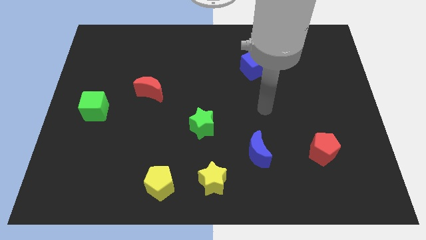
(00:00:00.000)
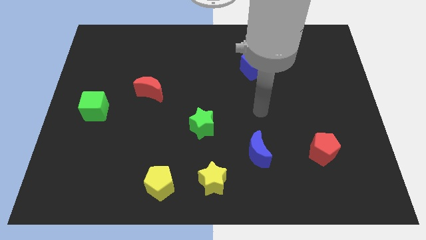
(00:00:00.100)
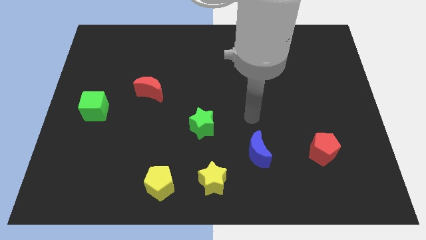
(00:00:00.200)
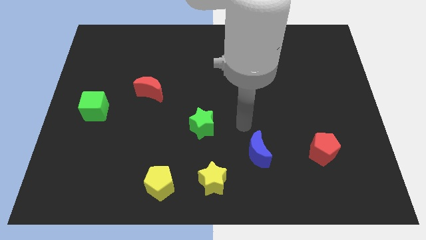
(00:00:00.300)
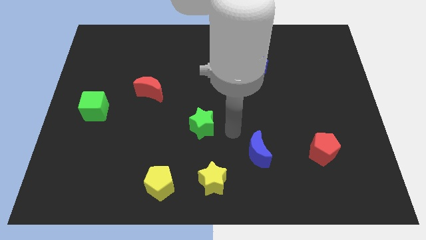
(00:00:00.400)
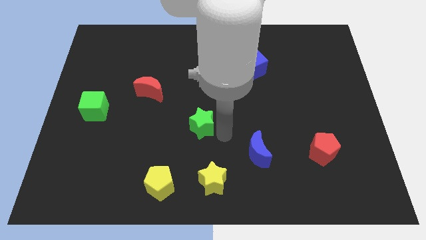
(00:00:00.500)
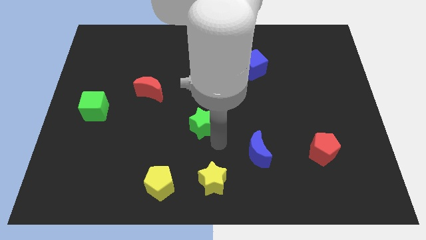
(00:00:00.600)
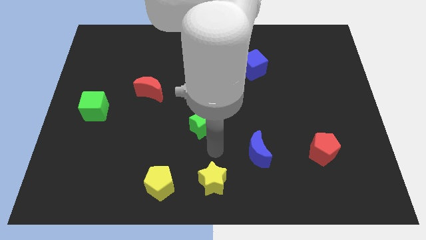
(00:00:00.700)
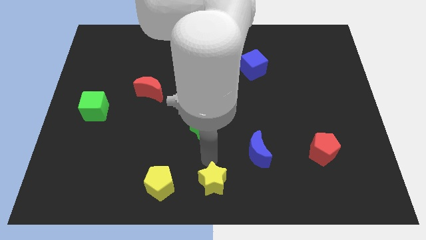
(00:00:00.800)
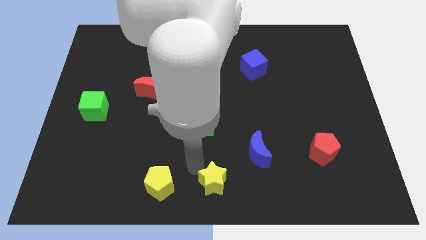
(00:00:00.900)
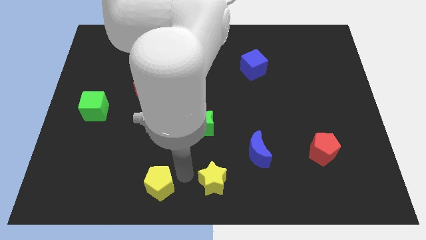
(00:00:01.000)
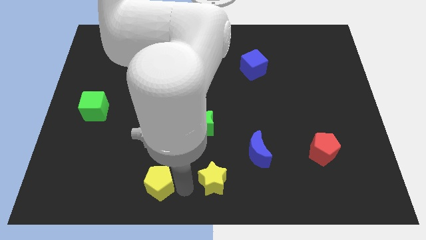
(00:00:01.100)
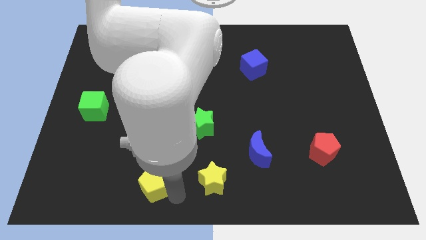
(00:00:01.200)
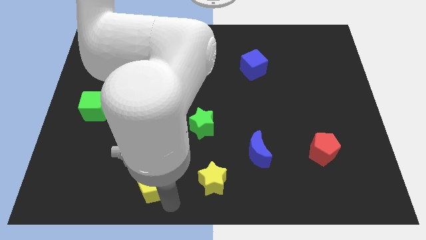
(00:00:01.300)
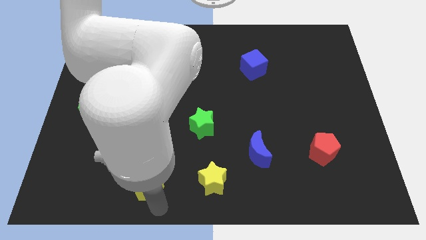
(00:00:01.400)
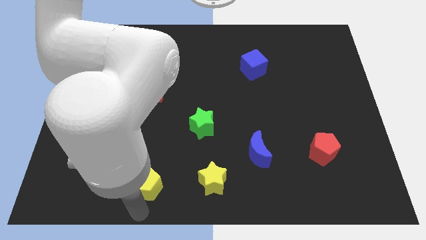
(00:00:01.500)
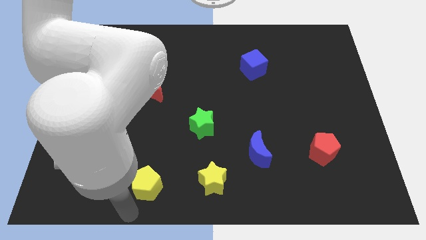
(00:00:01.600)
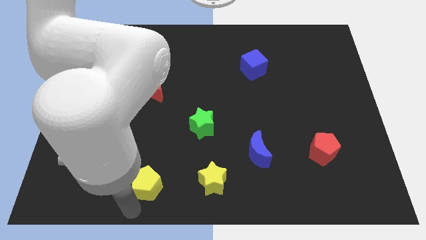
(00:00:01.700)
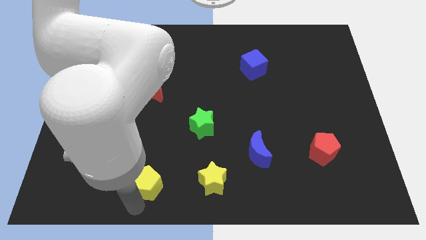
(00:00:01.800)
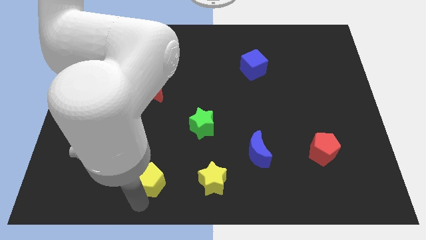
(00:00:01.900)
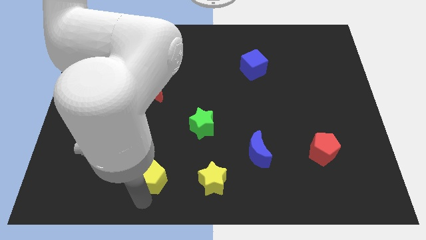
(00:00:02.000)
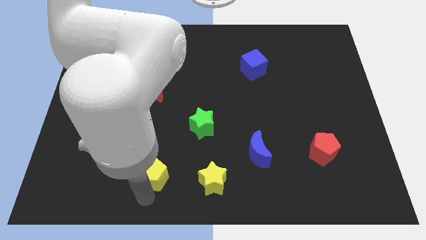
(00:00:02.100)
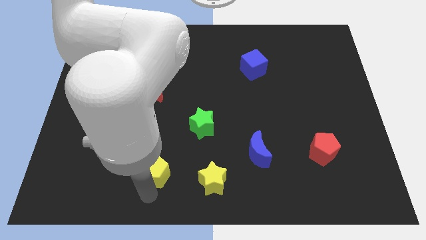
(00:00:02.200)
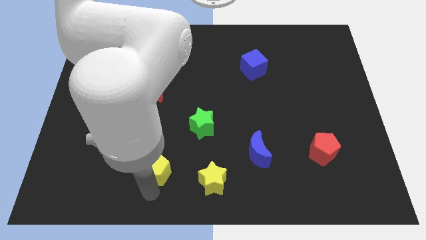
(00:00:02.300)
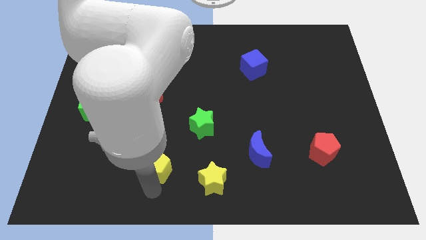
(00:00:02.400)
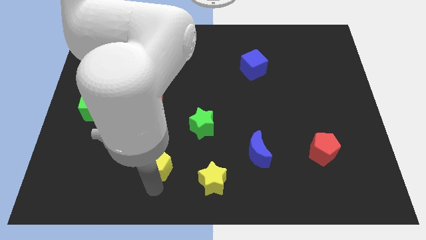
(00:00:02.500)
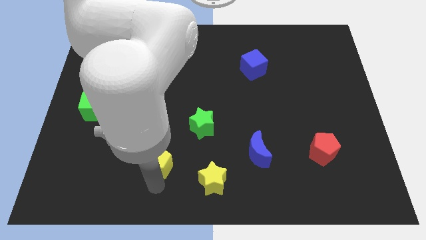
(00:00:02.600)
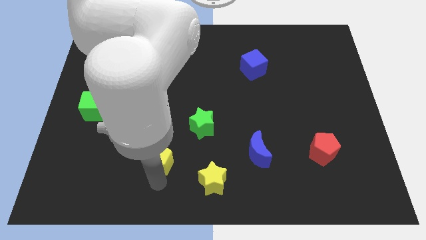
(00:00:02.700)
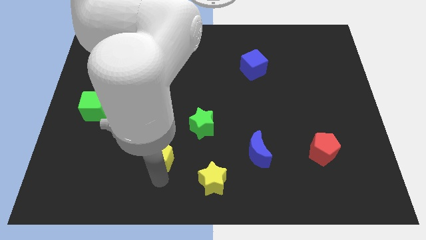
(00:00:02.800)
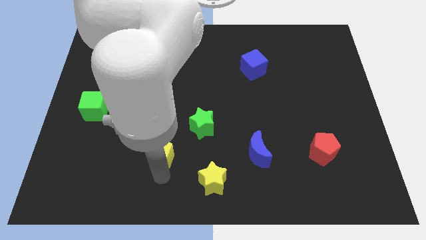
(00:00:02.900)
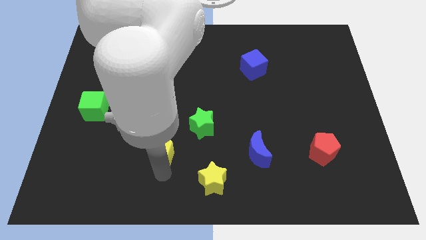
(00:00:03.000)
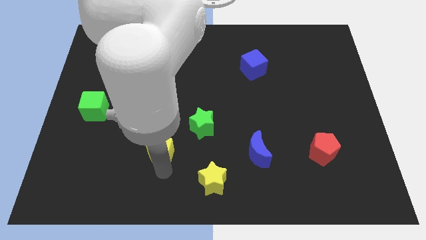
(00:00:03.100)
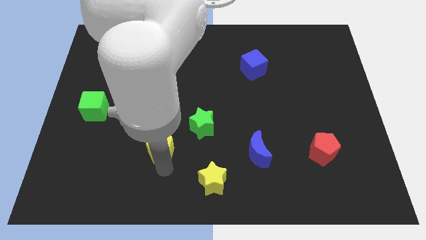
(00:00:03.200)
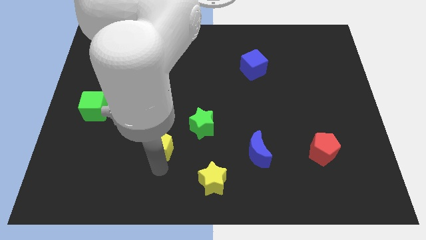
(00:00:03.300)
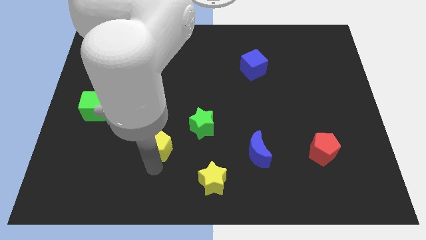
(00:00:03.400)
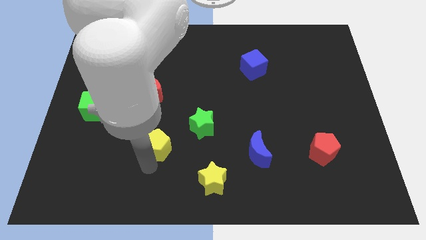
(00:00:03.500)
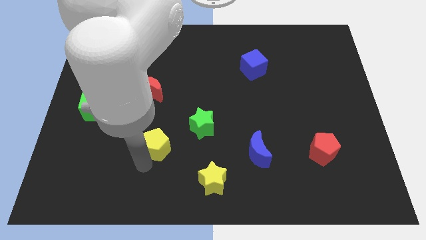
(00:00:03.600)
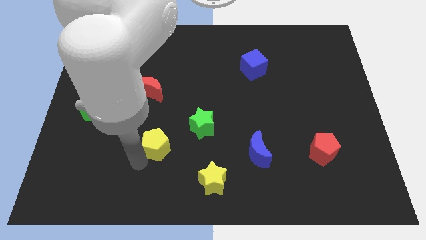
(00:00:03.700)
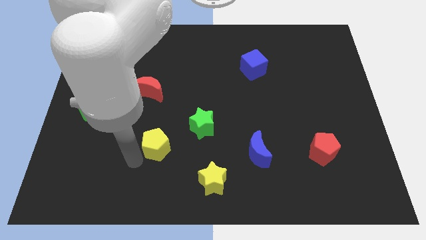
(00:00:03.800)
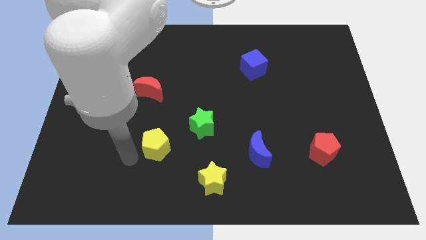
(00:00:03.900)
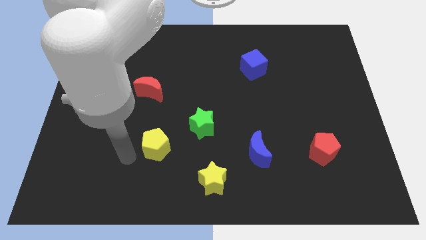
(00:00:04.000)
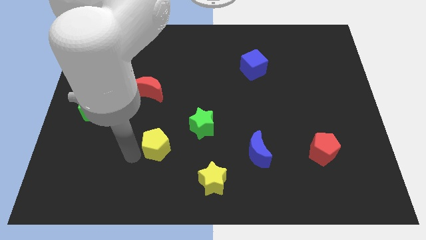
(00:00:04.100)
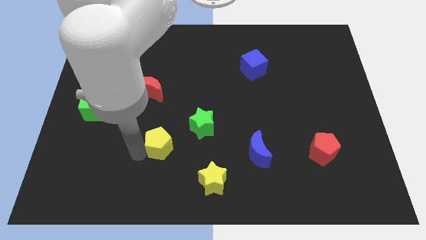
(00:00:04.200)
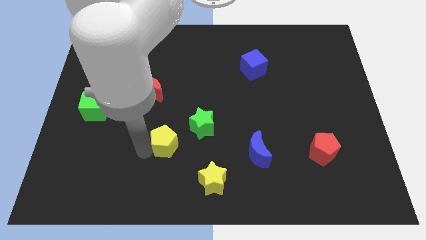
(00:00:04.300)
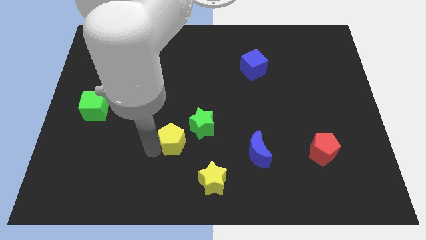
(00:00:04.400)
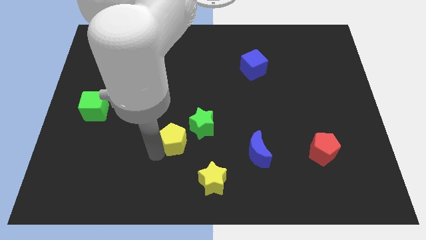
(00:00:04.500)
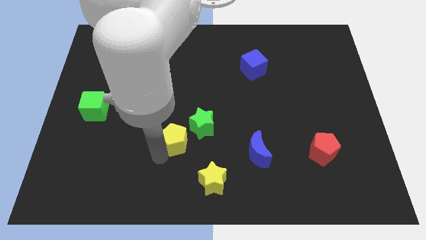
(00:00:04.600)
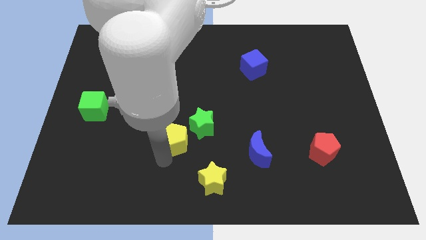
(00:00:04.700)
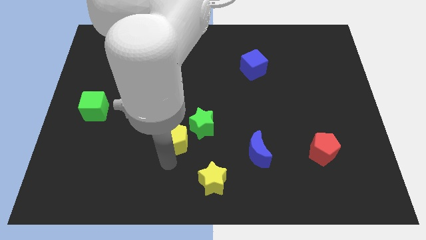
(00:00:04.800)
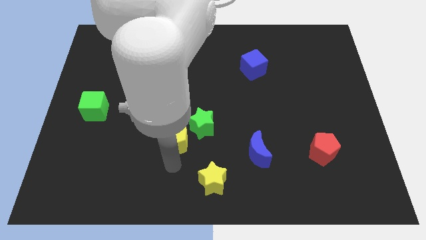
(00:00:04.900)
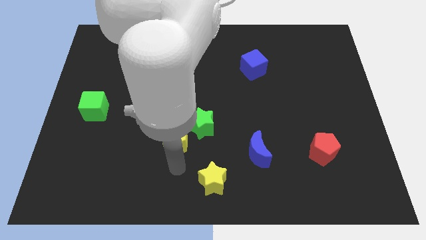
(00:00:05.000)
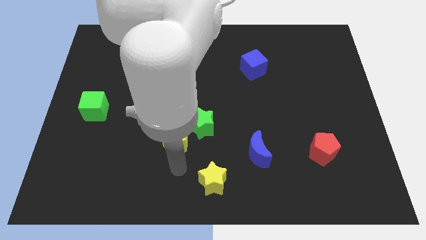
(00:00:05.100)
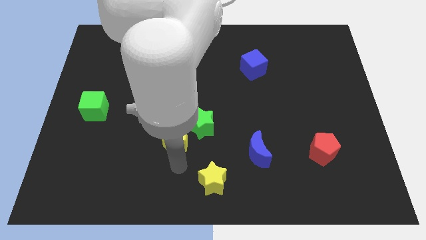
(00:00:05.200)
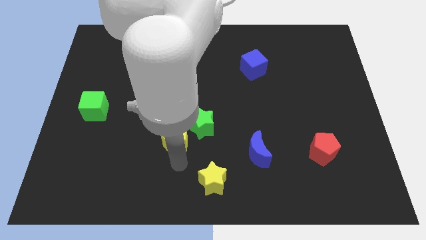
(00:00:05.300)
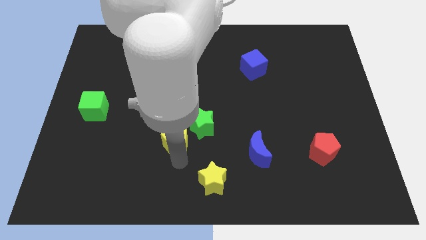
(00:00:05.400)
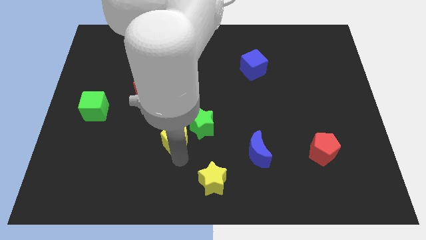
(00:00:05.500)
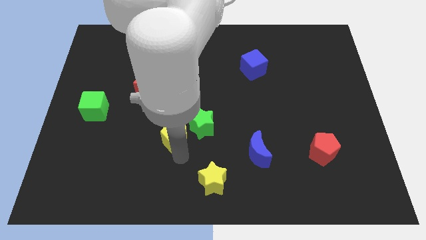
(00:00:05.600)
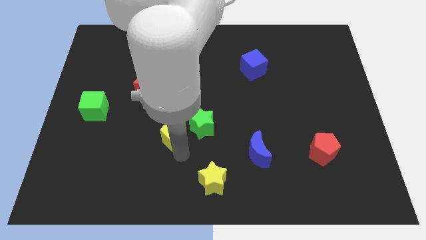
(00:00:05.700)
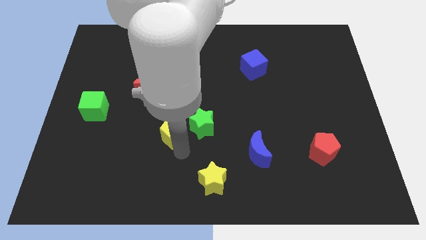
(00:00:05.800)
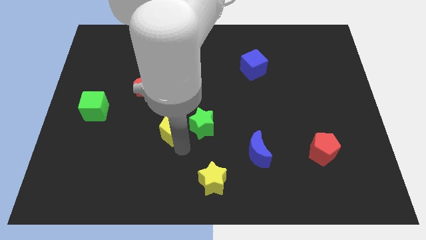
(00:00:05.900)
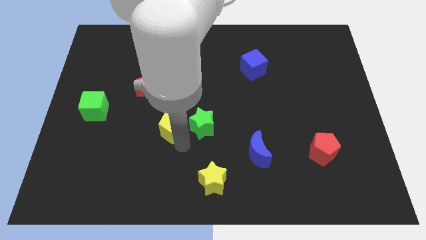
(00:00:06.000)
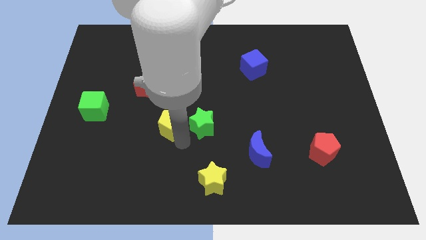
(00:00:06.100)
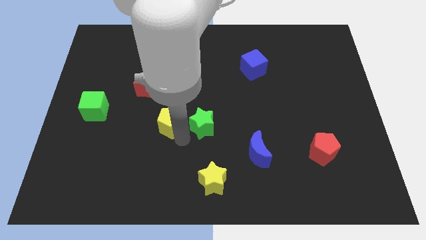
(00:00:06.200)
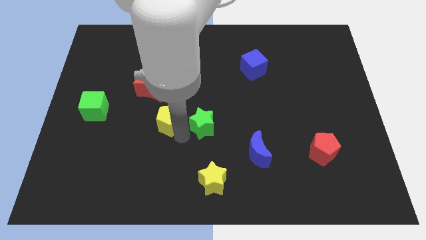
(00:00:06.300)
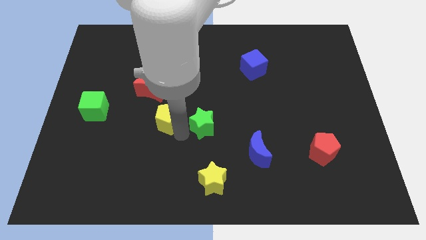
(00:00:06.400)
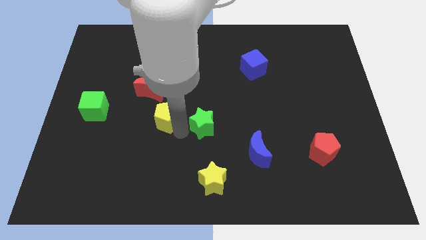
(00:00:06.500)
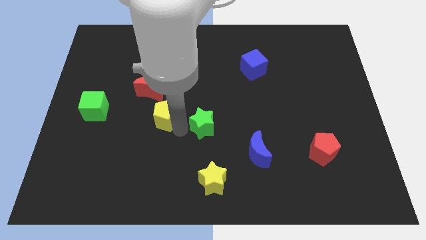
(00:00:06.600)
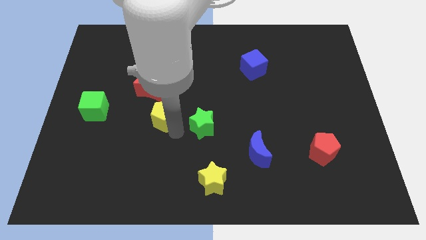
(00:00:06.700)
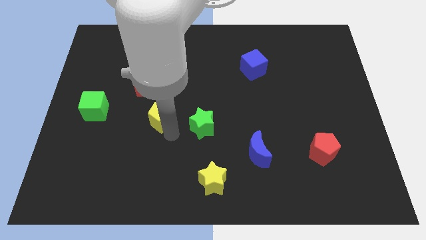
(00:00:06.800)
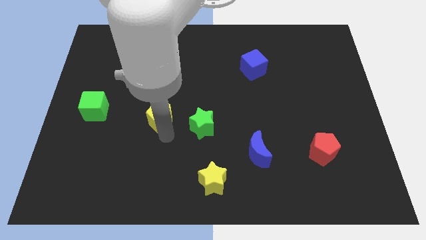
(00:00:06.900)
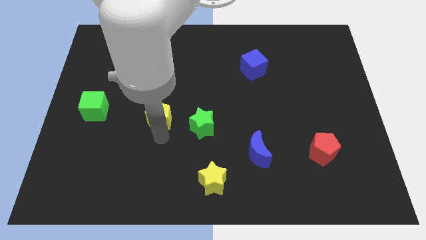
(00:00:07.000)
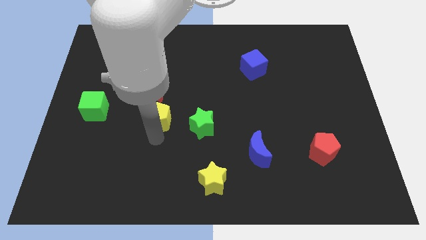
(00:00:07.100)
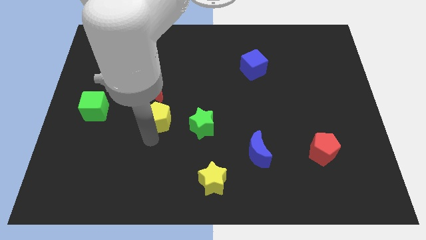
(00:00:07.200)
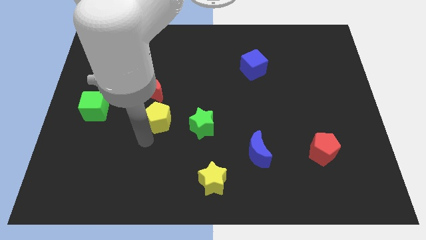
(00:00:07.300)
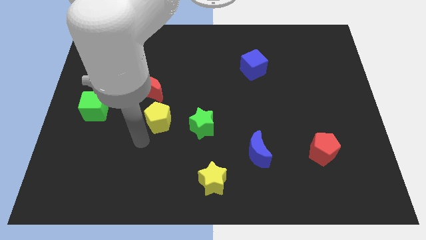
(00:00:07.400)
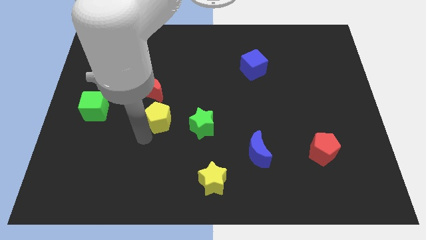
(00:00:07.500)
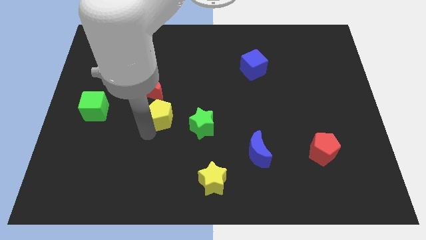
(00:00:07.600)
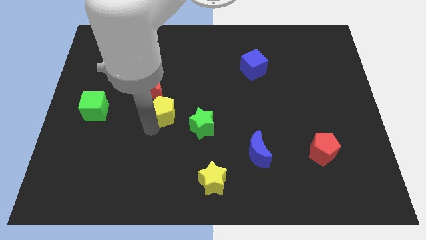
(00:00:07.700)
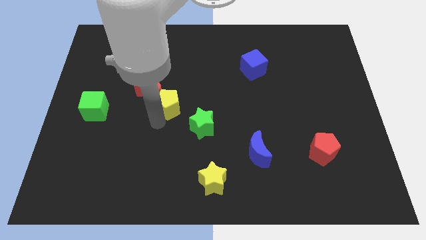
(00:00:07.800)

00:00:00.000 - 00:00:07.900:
push the yellow pentagon up
